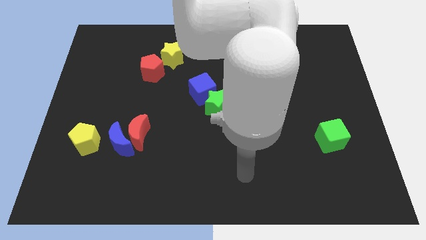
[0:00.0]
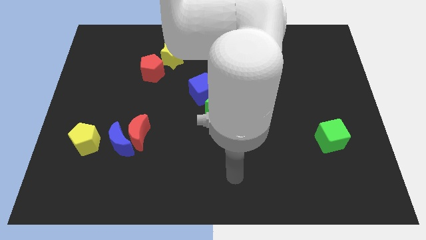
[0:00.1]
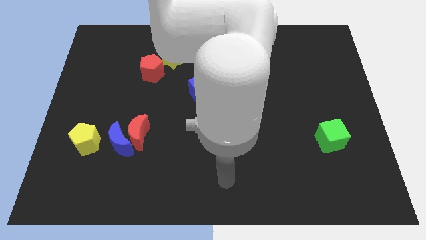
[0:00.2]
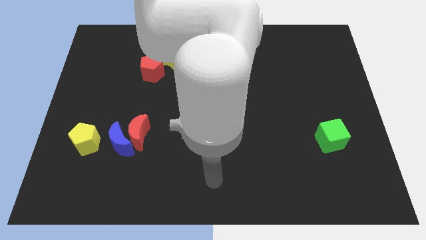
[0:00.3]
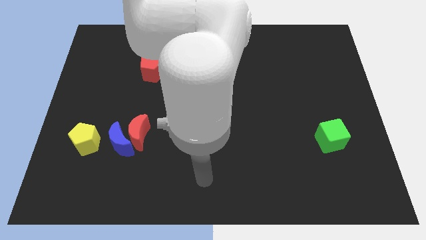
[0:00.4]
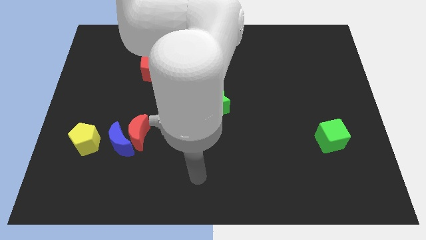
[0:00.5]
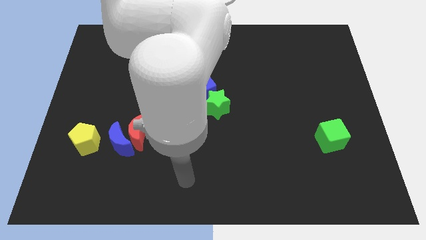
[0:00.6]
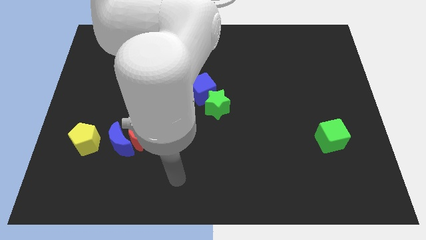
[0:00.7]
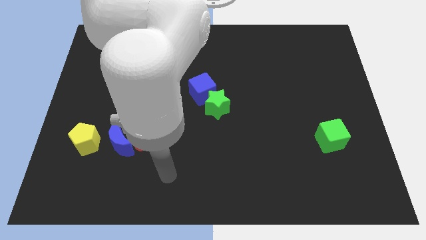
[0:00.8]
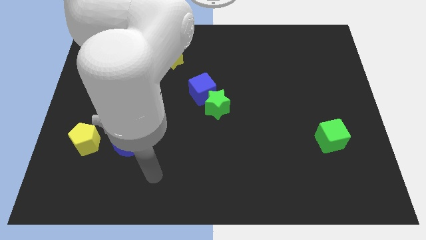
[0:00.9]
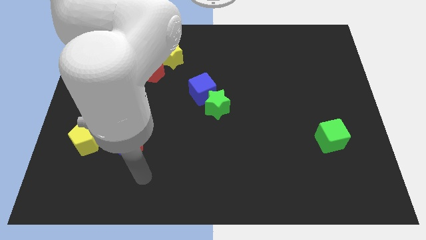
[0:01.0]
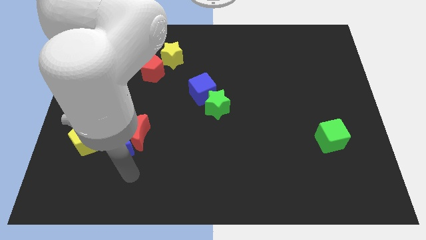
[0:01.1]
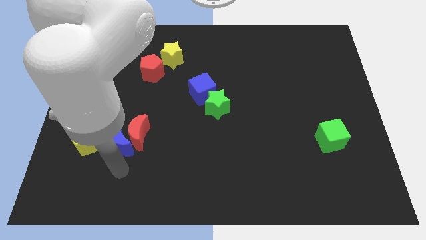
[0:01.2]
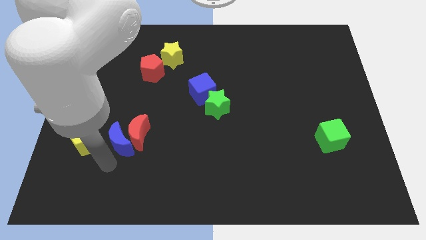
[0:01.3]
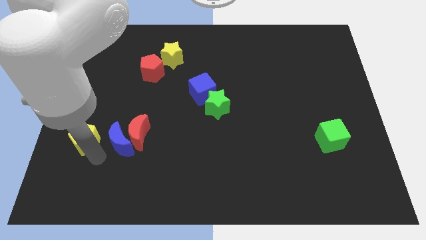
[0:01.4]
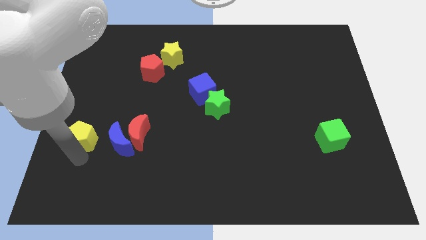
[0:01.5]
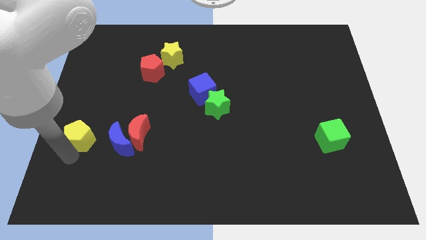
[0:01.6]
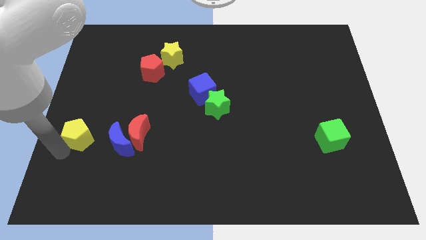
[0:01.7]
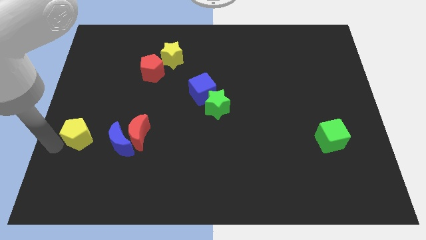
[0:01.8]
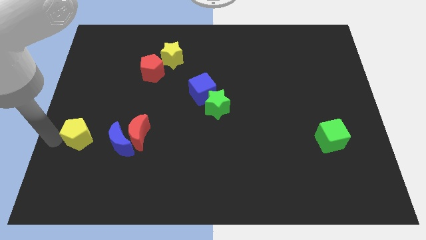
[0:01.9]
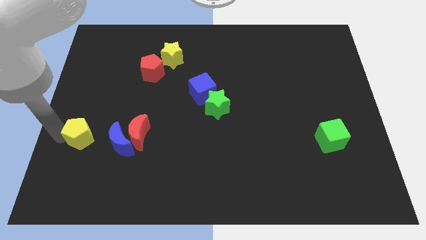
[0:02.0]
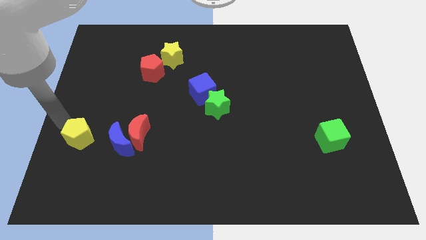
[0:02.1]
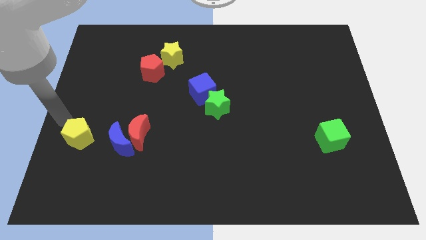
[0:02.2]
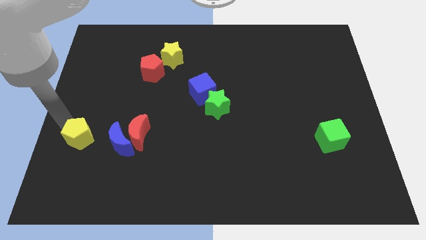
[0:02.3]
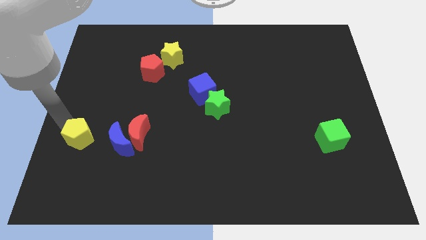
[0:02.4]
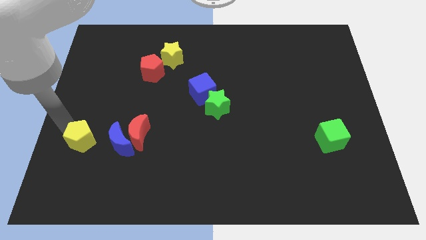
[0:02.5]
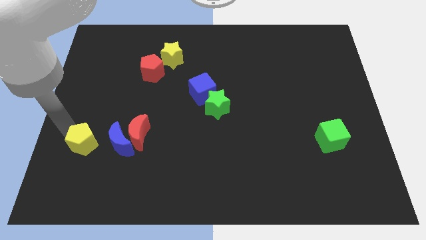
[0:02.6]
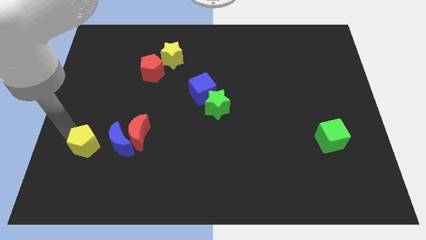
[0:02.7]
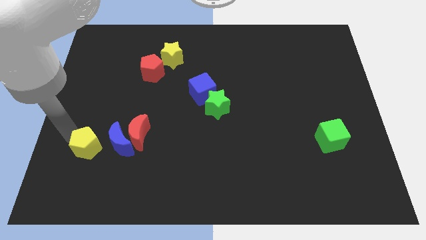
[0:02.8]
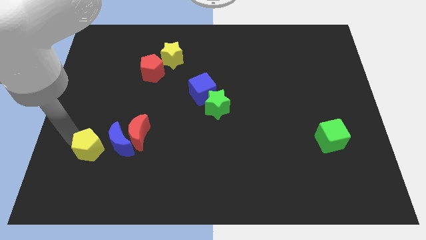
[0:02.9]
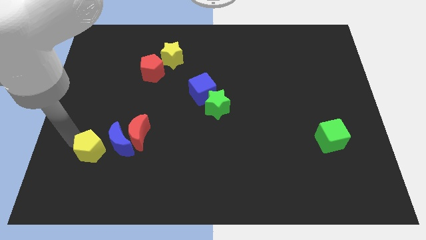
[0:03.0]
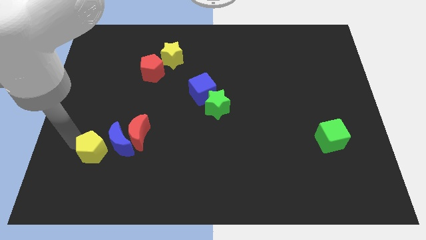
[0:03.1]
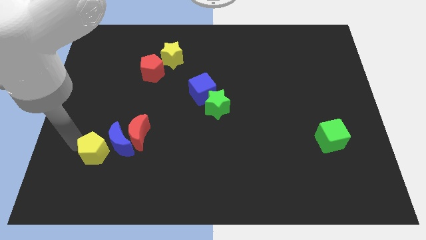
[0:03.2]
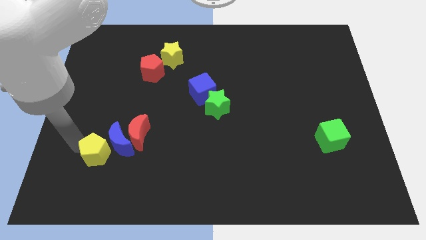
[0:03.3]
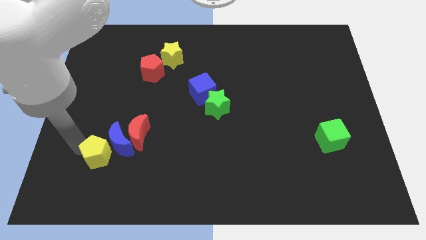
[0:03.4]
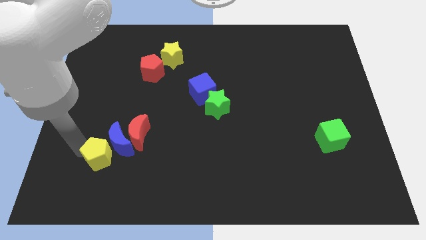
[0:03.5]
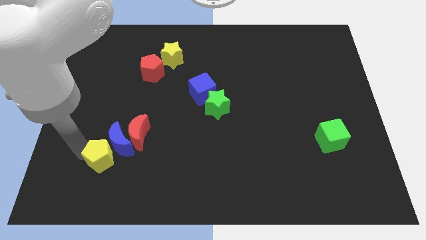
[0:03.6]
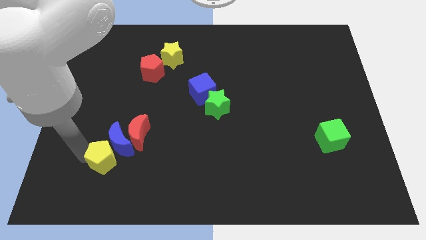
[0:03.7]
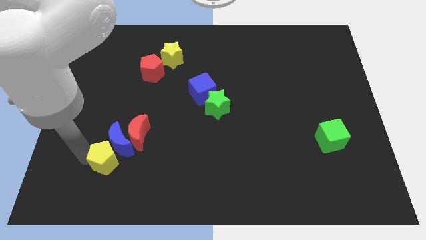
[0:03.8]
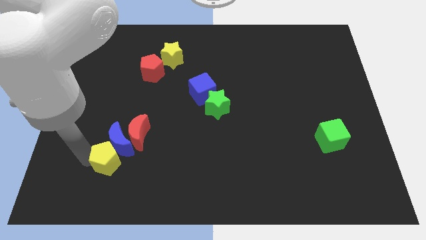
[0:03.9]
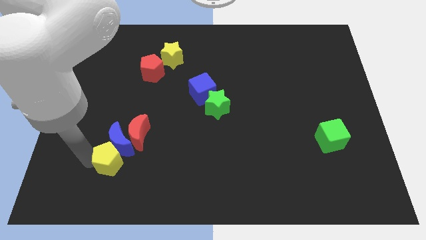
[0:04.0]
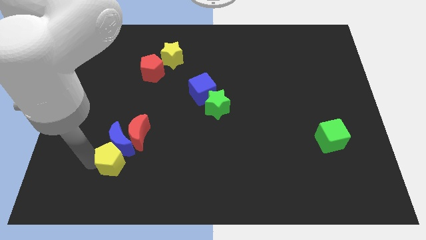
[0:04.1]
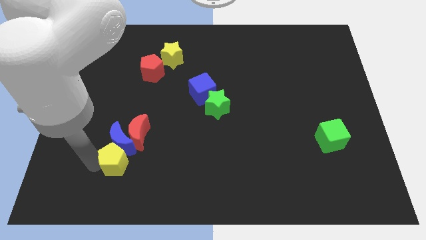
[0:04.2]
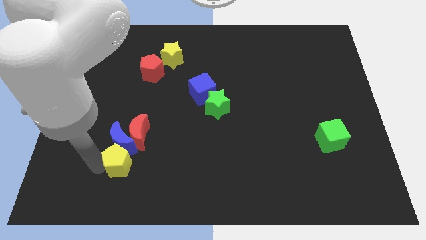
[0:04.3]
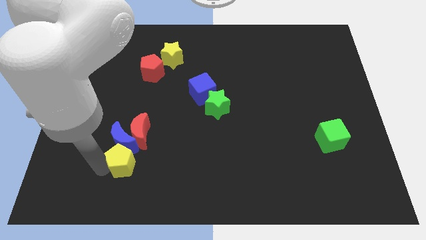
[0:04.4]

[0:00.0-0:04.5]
slightly push the yellow pentagon right

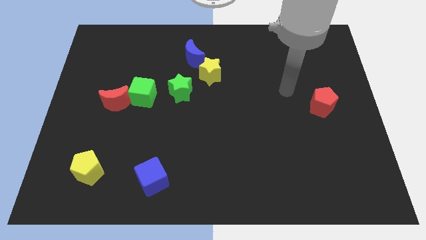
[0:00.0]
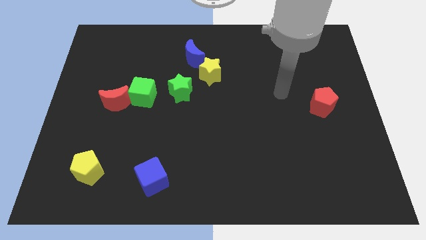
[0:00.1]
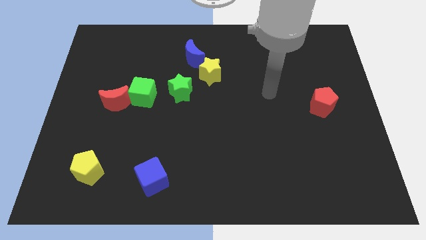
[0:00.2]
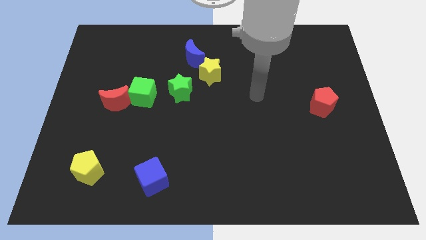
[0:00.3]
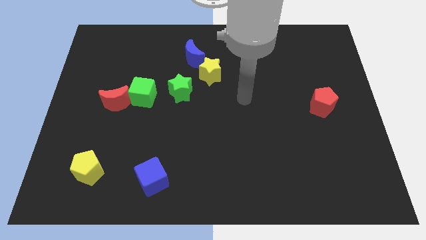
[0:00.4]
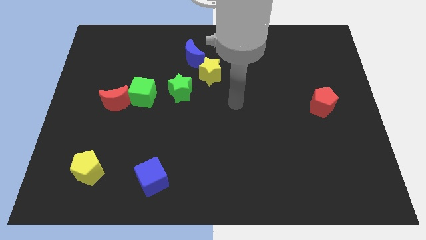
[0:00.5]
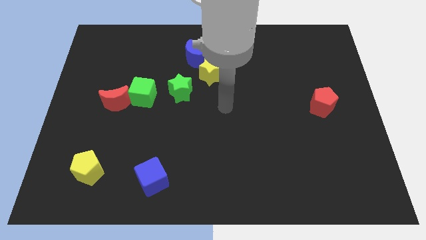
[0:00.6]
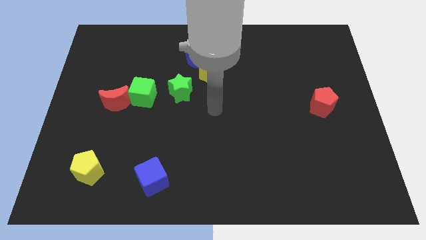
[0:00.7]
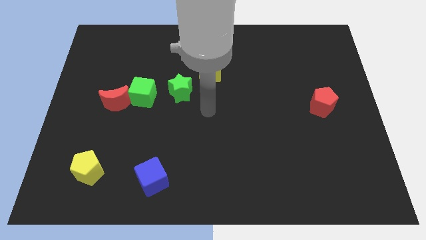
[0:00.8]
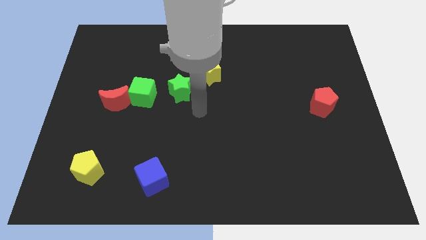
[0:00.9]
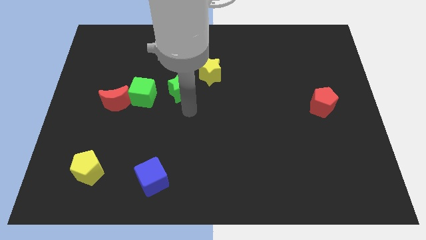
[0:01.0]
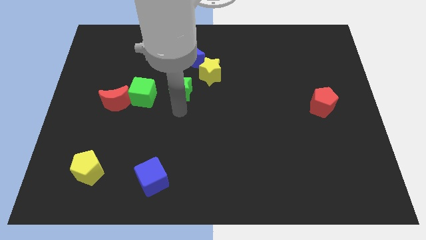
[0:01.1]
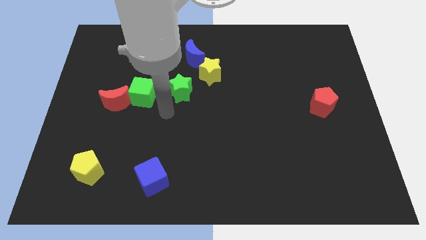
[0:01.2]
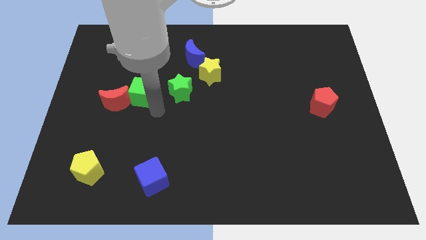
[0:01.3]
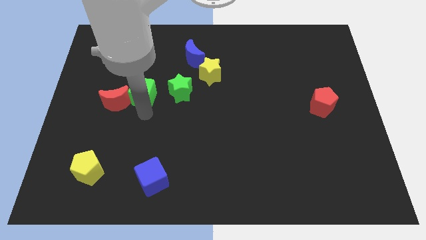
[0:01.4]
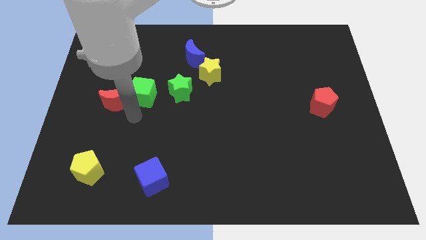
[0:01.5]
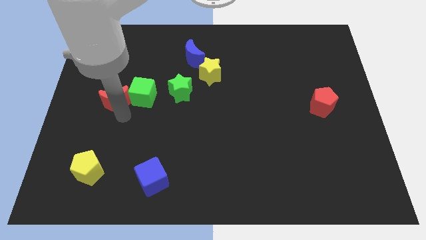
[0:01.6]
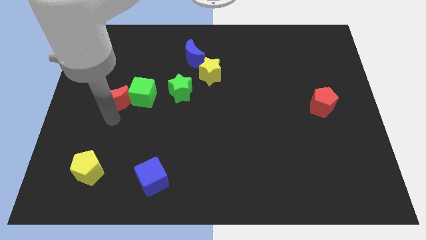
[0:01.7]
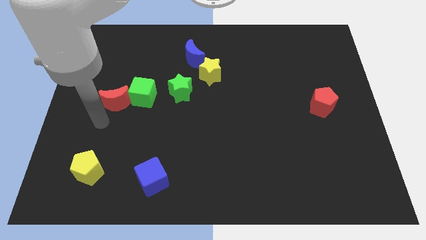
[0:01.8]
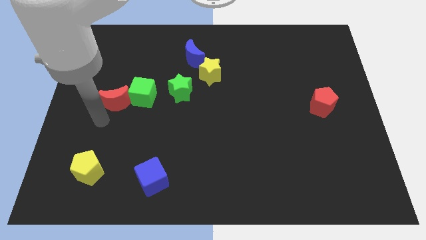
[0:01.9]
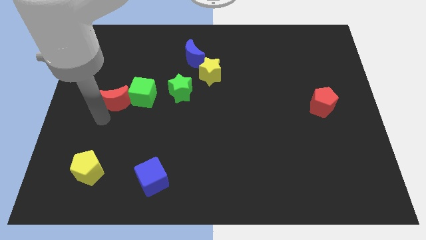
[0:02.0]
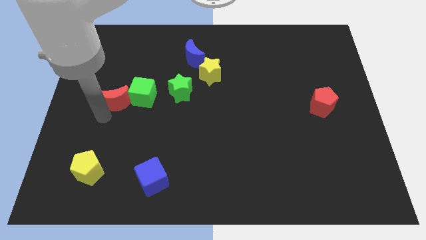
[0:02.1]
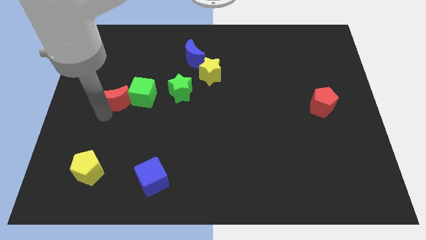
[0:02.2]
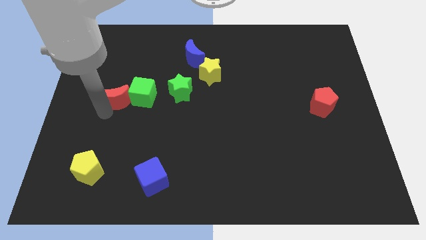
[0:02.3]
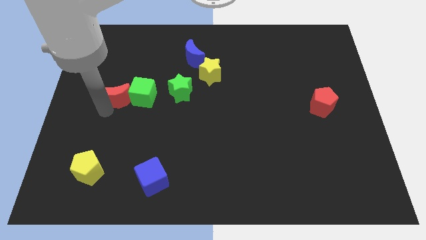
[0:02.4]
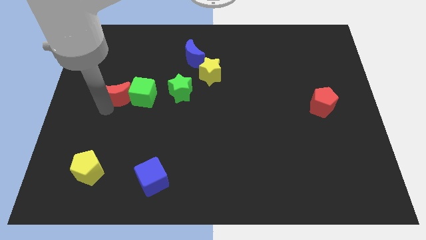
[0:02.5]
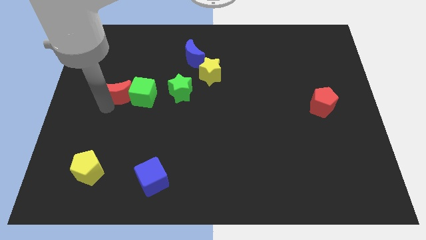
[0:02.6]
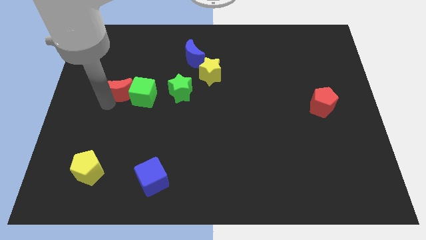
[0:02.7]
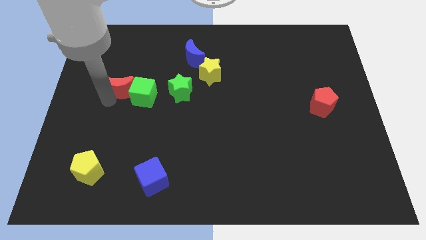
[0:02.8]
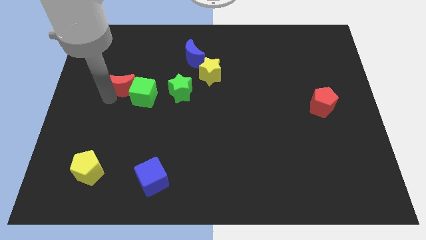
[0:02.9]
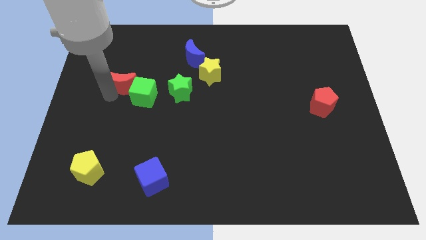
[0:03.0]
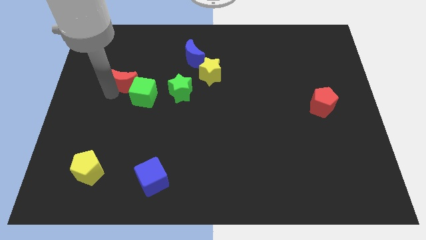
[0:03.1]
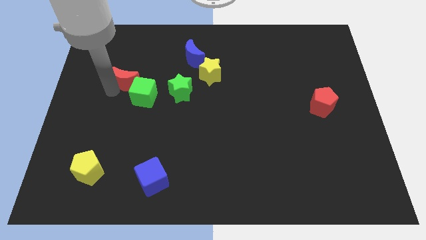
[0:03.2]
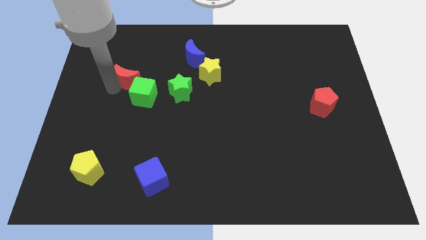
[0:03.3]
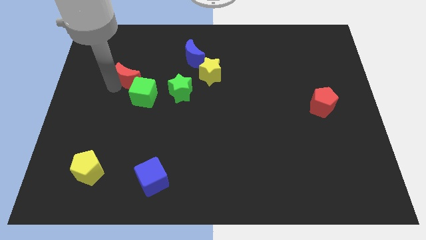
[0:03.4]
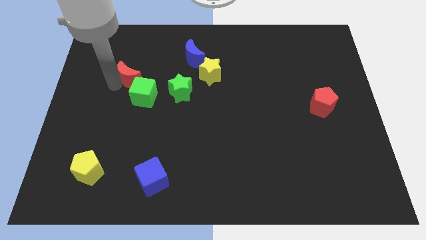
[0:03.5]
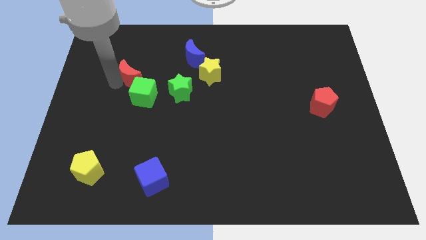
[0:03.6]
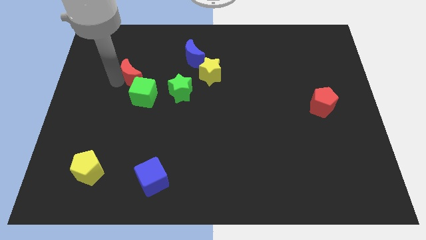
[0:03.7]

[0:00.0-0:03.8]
slightly push the red moon upwards and then right
